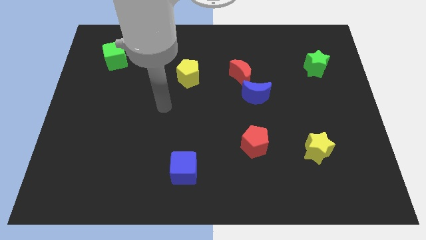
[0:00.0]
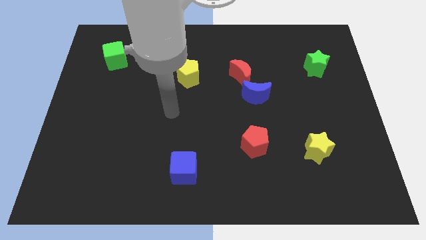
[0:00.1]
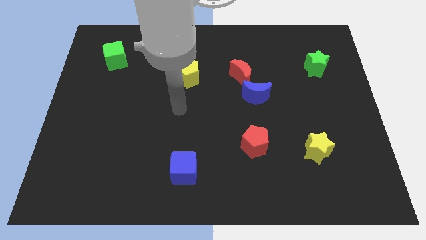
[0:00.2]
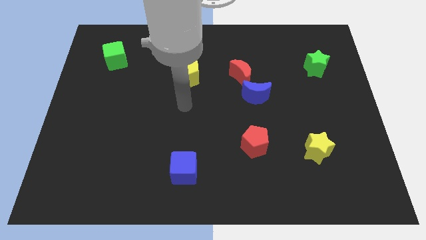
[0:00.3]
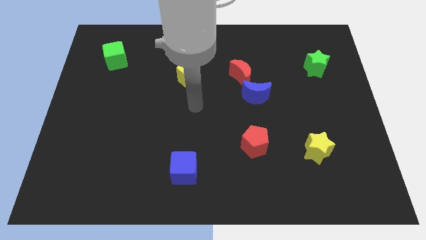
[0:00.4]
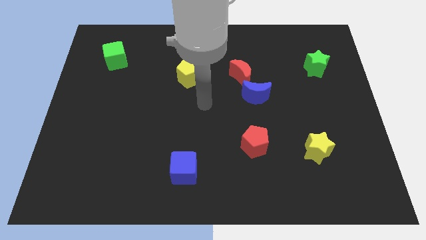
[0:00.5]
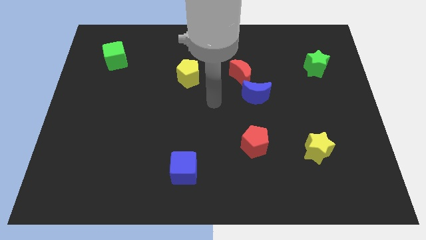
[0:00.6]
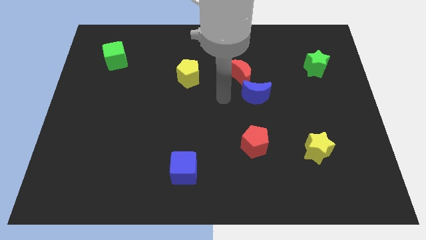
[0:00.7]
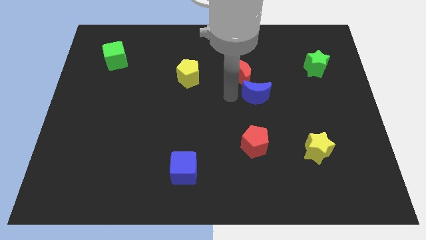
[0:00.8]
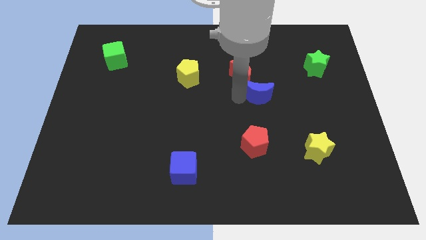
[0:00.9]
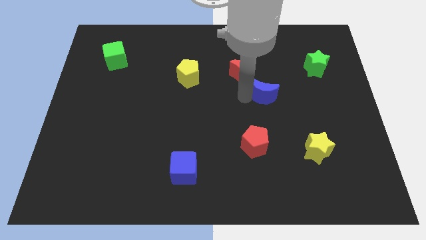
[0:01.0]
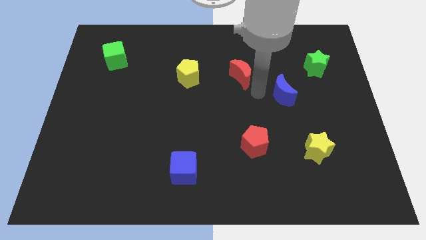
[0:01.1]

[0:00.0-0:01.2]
separate the red moon from the blue moon

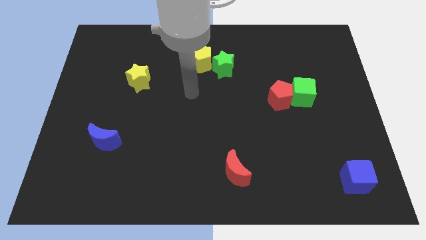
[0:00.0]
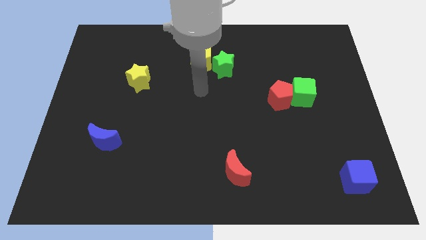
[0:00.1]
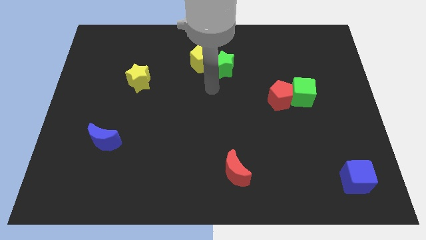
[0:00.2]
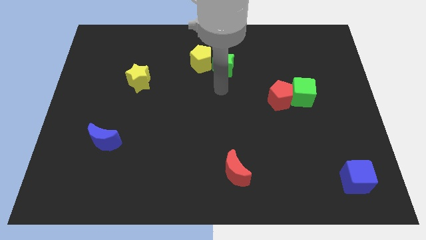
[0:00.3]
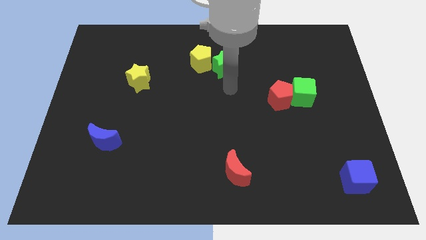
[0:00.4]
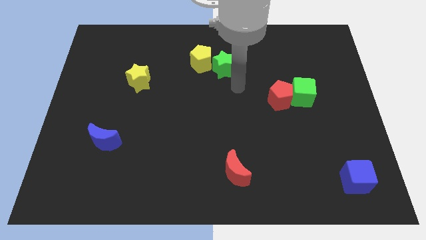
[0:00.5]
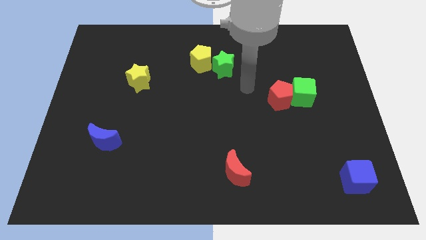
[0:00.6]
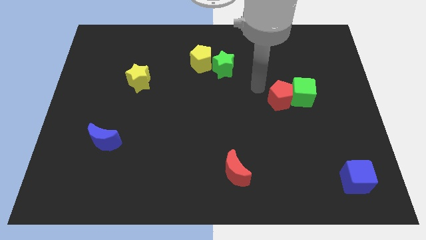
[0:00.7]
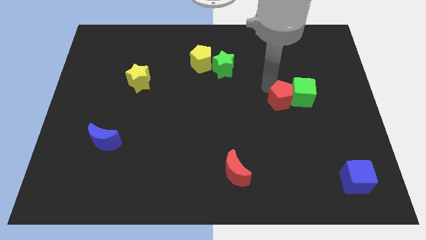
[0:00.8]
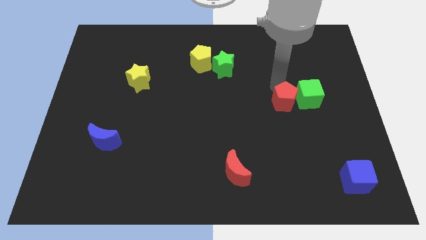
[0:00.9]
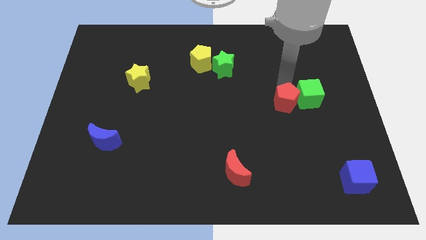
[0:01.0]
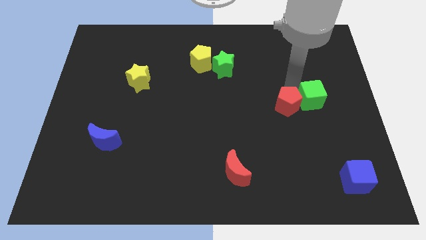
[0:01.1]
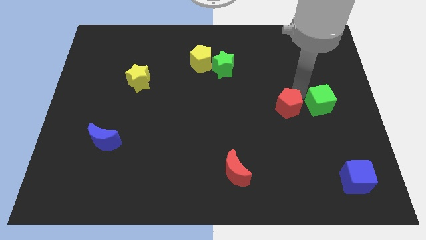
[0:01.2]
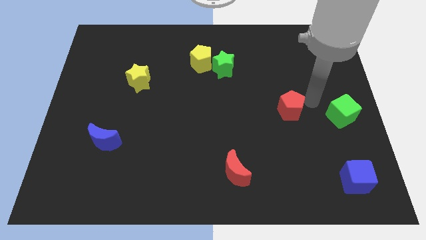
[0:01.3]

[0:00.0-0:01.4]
move the red pentagon away from the green cube

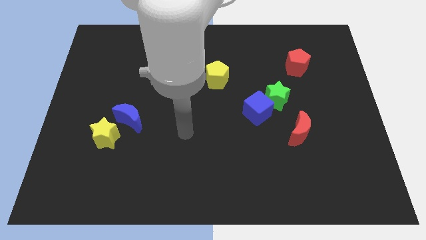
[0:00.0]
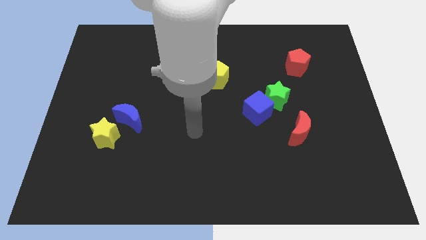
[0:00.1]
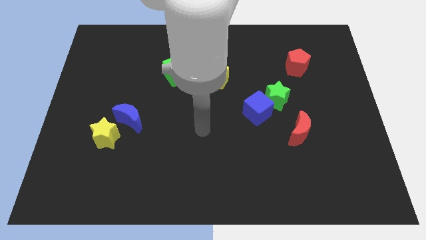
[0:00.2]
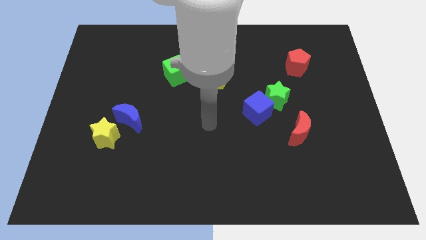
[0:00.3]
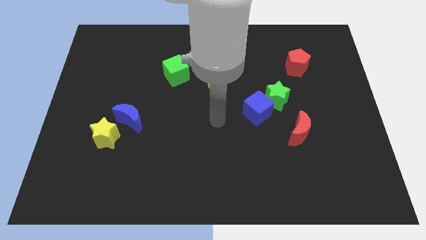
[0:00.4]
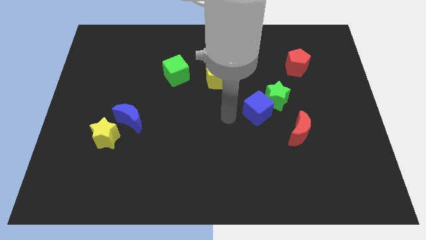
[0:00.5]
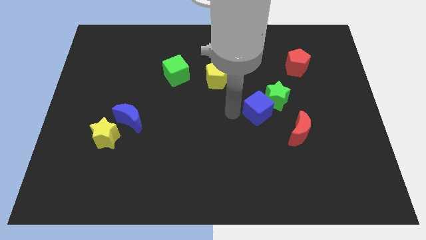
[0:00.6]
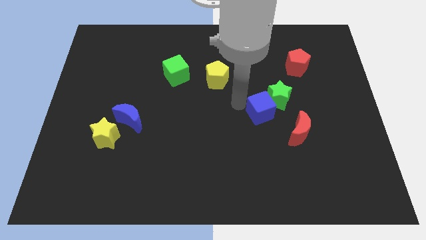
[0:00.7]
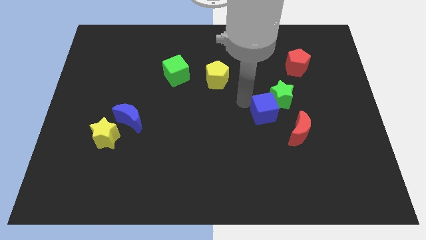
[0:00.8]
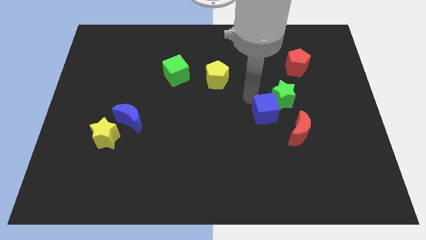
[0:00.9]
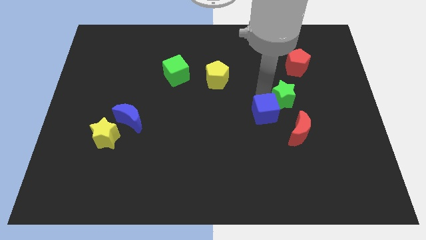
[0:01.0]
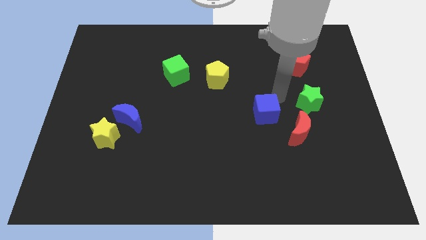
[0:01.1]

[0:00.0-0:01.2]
move the blue cube away from the green star

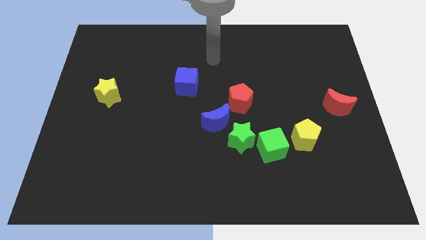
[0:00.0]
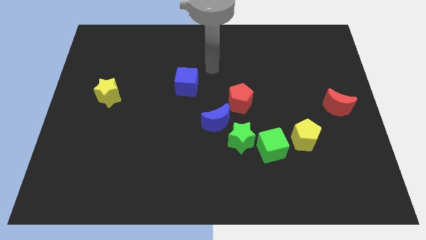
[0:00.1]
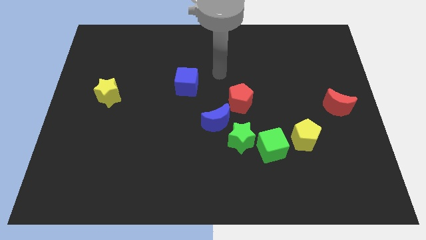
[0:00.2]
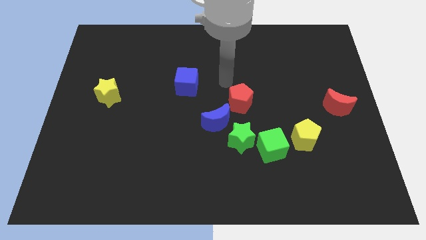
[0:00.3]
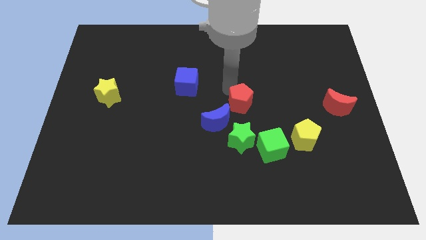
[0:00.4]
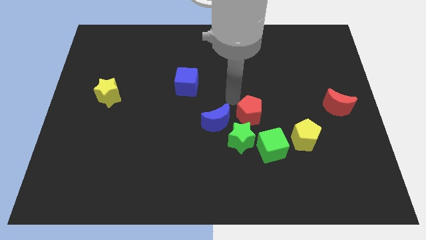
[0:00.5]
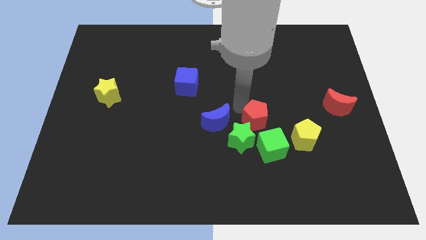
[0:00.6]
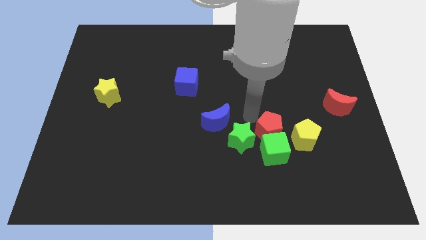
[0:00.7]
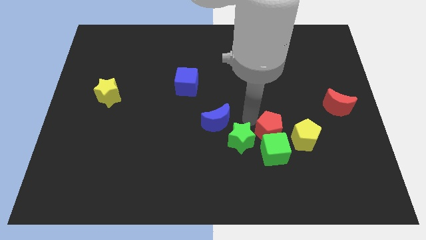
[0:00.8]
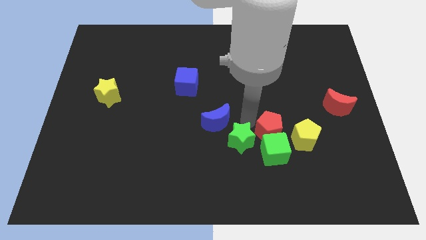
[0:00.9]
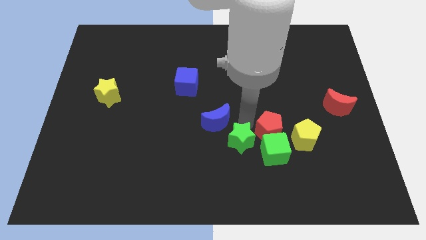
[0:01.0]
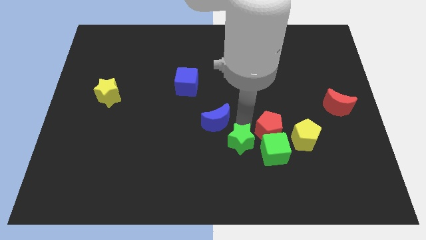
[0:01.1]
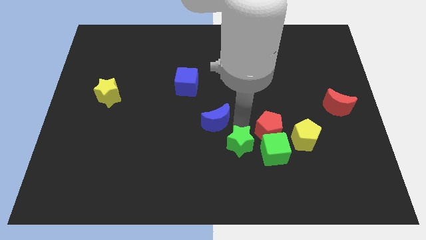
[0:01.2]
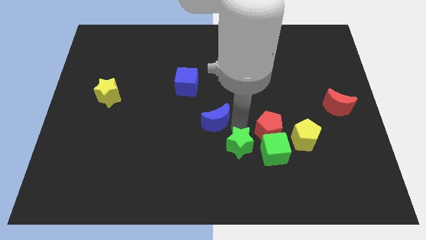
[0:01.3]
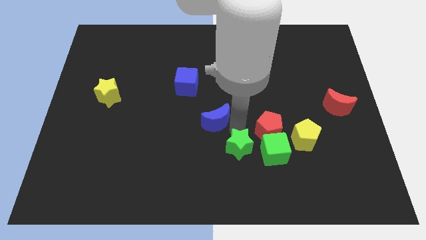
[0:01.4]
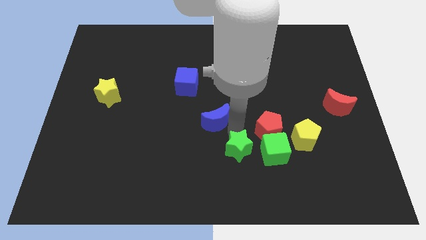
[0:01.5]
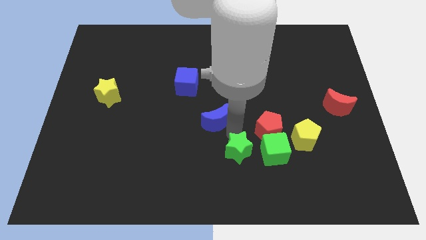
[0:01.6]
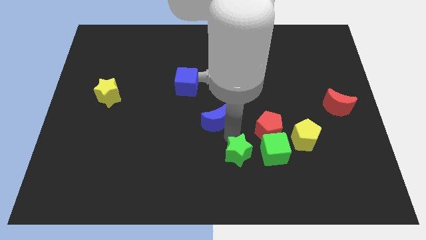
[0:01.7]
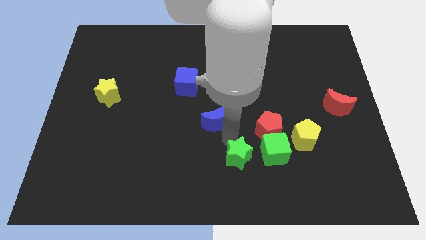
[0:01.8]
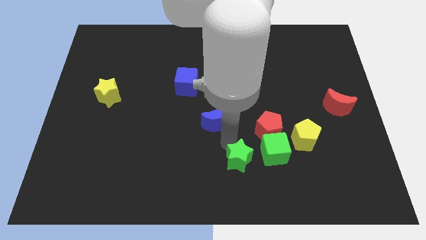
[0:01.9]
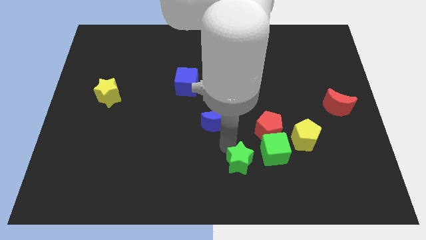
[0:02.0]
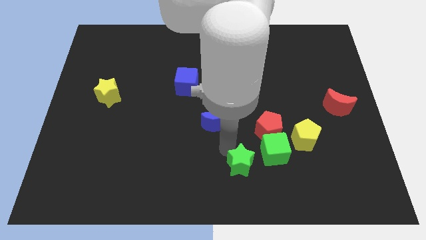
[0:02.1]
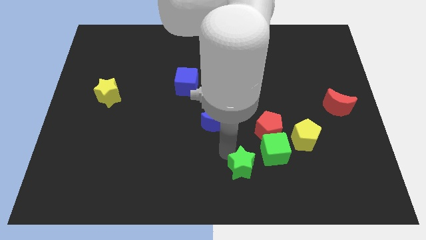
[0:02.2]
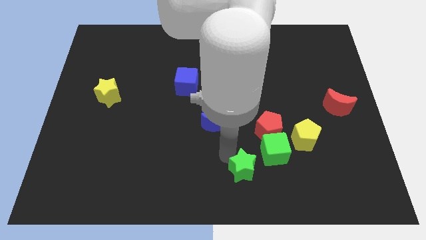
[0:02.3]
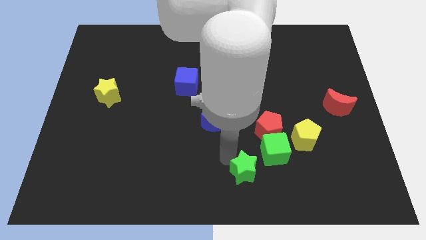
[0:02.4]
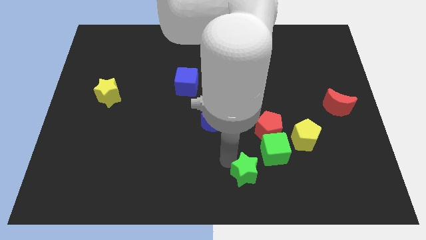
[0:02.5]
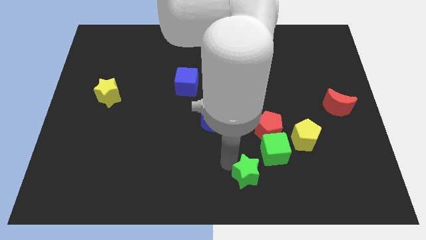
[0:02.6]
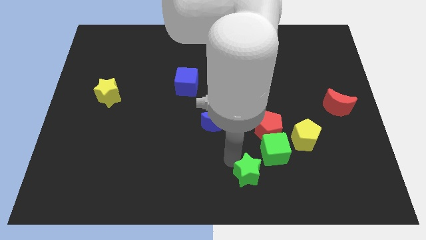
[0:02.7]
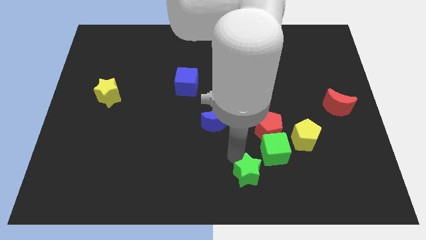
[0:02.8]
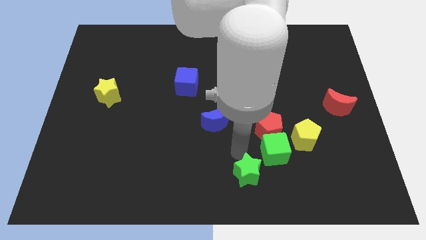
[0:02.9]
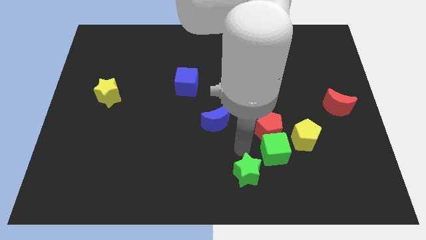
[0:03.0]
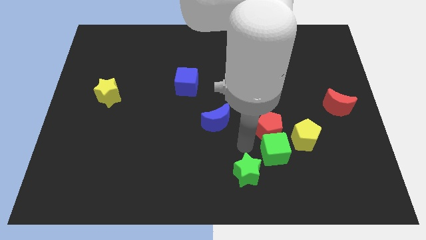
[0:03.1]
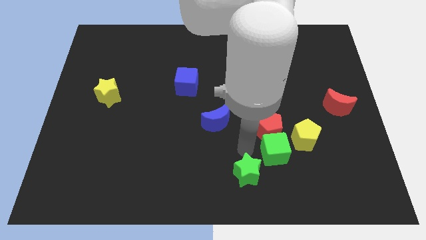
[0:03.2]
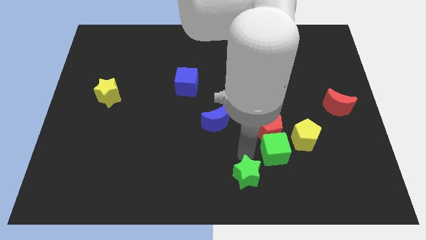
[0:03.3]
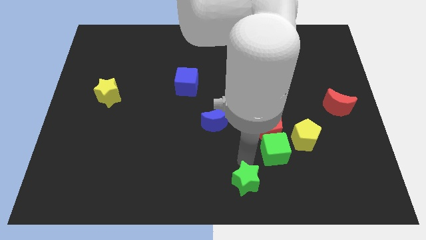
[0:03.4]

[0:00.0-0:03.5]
separate the green star from the blue moon and green cube

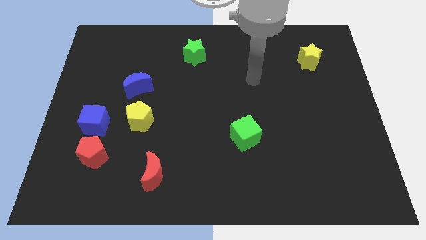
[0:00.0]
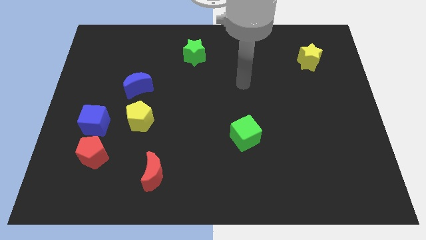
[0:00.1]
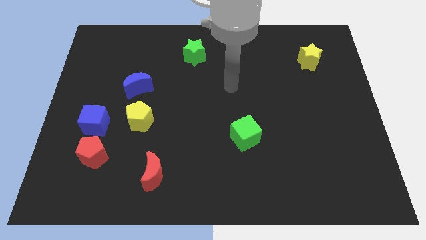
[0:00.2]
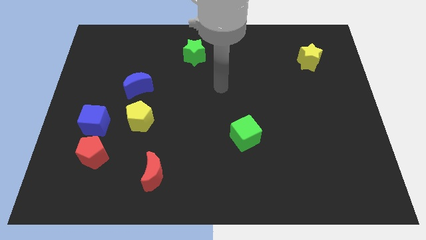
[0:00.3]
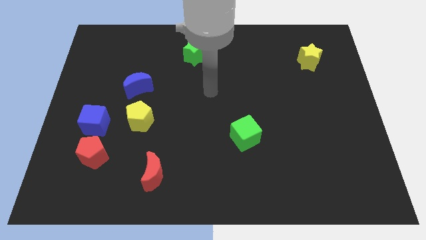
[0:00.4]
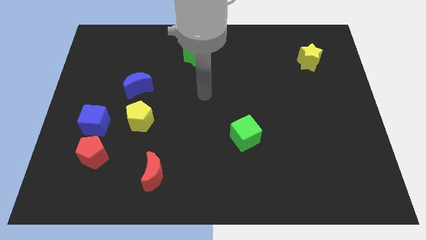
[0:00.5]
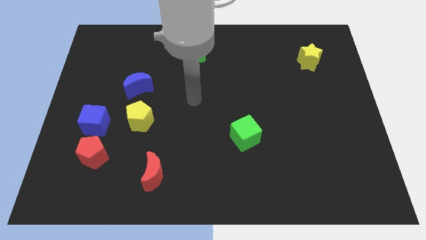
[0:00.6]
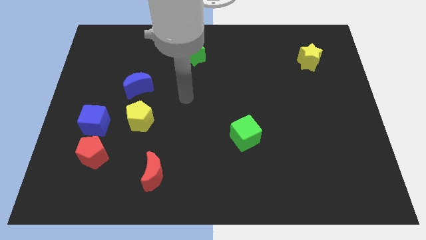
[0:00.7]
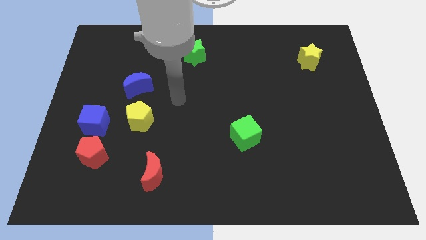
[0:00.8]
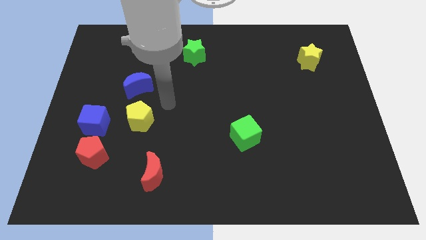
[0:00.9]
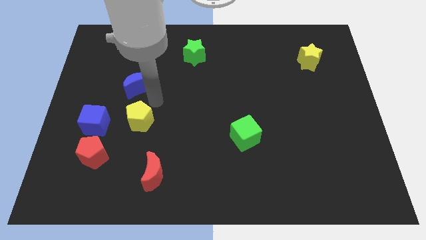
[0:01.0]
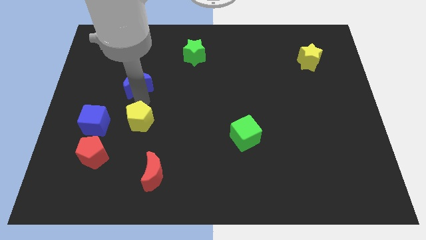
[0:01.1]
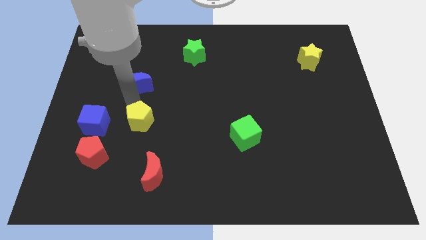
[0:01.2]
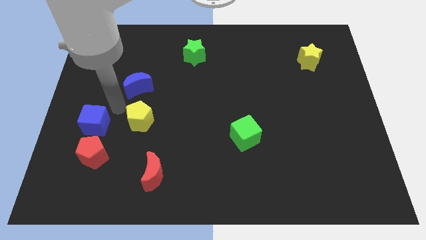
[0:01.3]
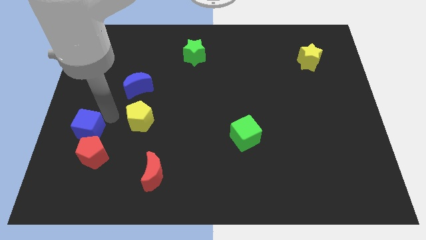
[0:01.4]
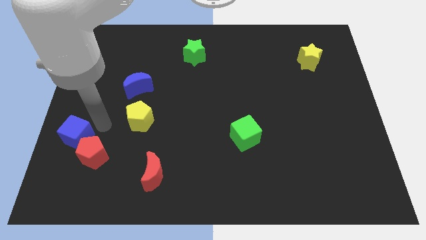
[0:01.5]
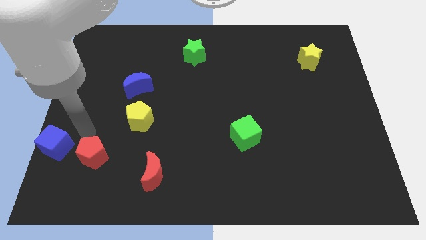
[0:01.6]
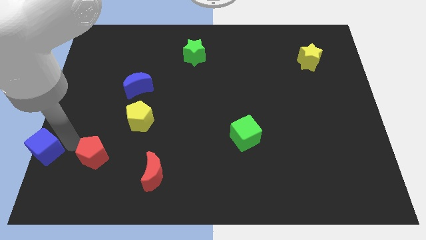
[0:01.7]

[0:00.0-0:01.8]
separate the red pentagon from the blue cube

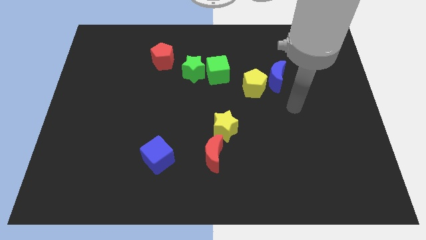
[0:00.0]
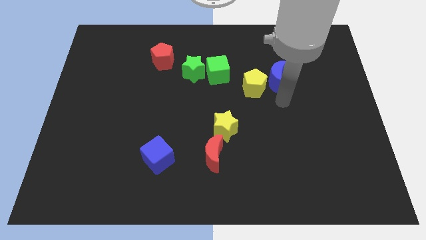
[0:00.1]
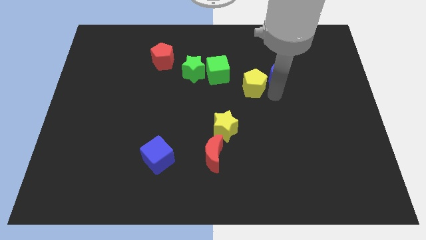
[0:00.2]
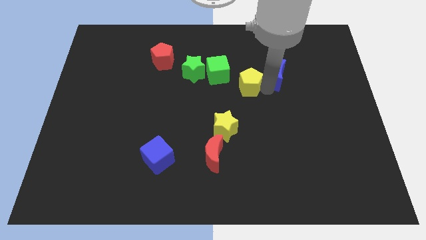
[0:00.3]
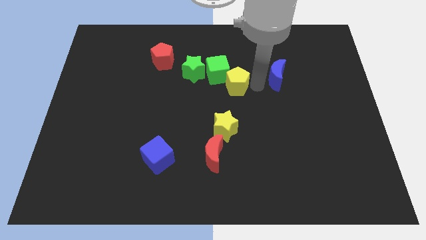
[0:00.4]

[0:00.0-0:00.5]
separate the blue moon from the yellow pentagon
